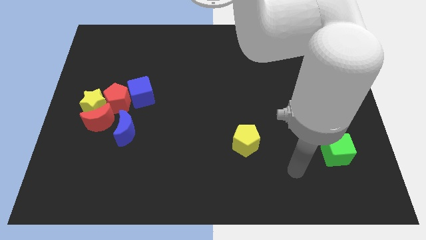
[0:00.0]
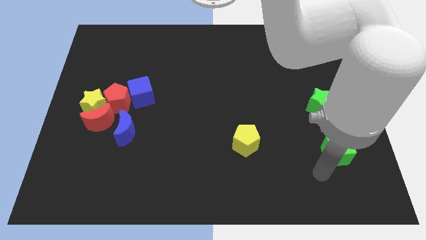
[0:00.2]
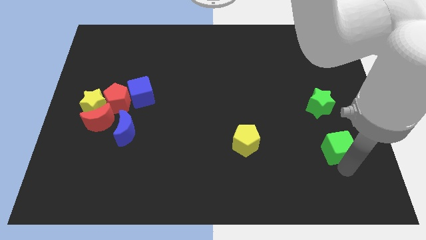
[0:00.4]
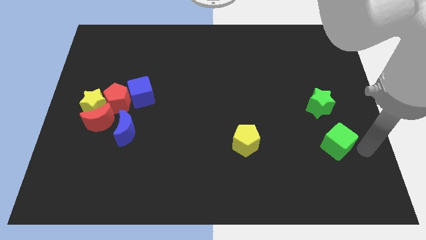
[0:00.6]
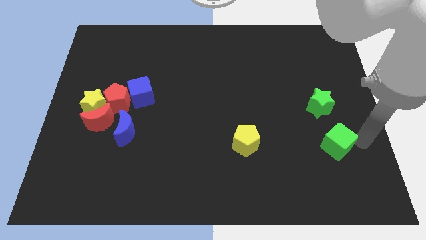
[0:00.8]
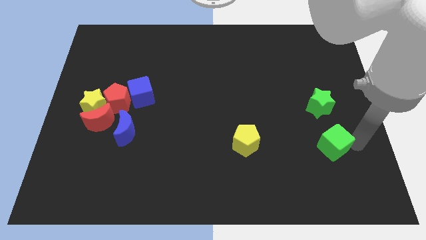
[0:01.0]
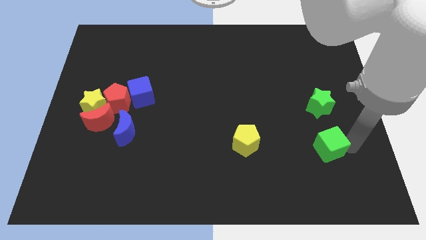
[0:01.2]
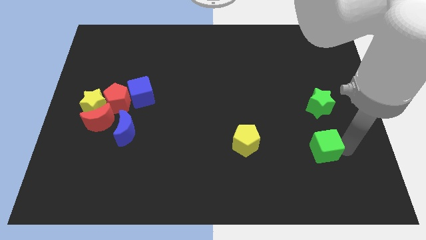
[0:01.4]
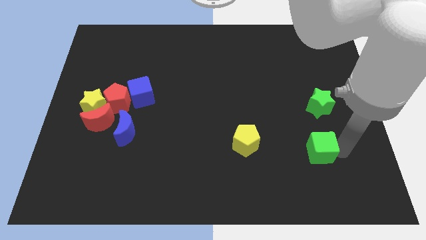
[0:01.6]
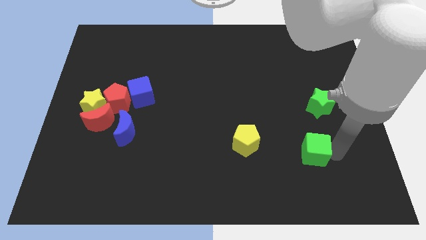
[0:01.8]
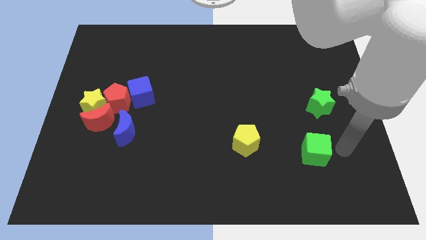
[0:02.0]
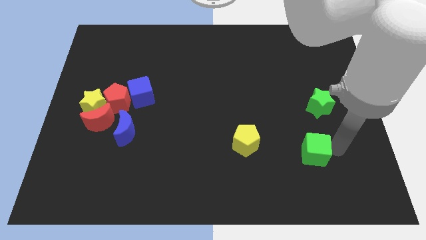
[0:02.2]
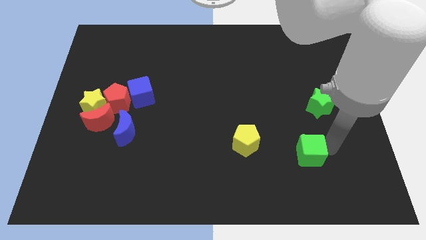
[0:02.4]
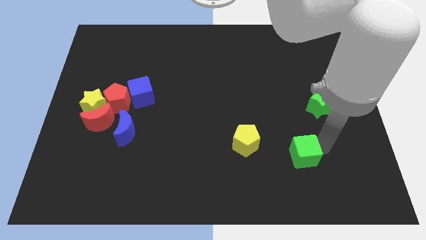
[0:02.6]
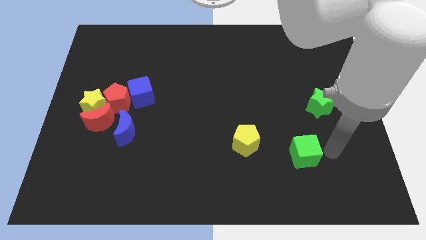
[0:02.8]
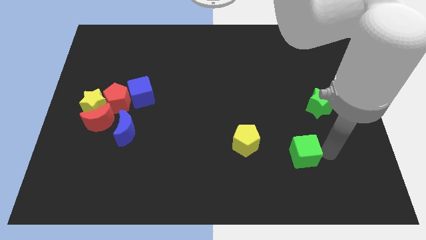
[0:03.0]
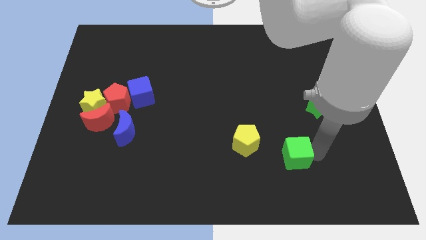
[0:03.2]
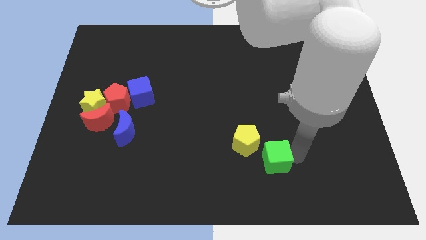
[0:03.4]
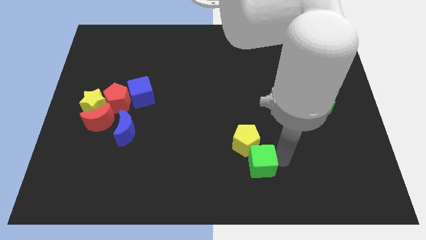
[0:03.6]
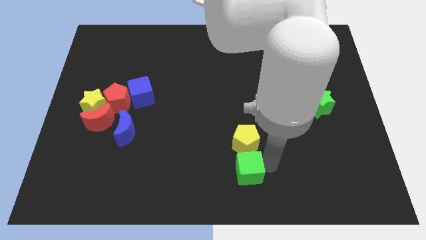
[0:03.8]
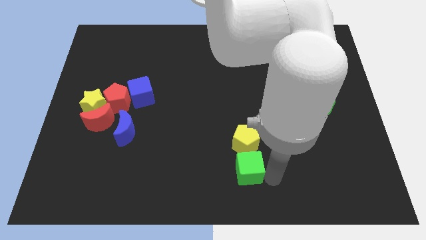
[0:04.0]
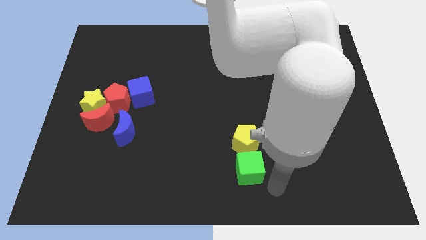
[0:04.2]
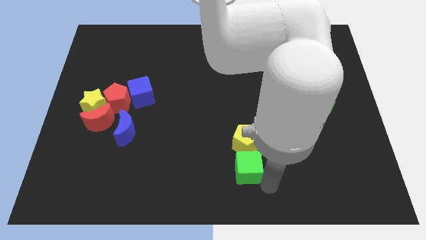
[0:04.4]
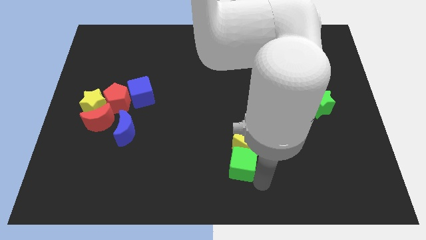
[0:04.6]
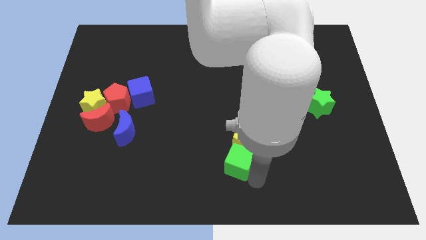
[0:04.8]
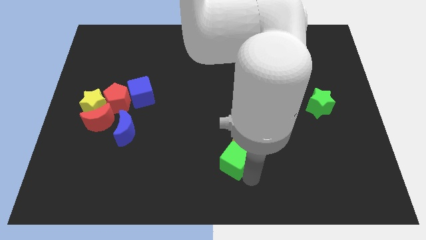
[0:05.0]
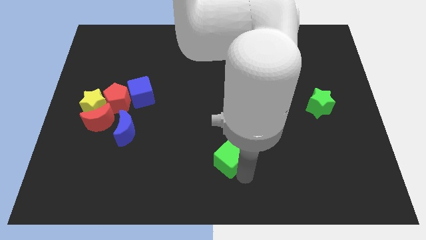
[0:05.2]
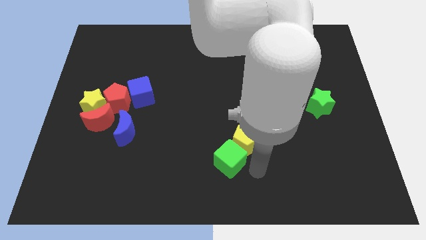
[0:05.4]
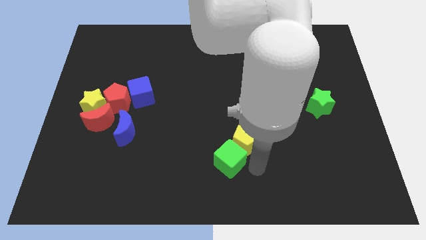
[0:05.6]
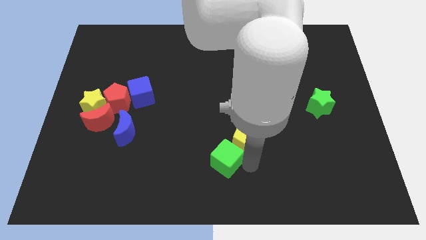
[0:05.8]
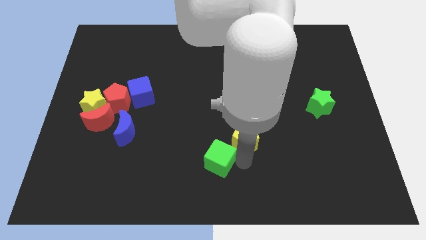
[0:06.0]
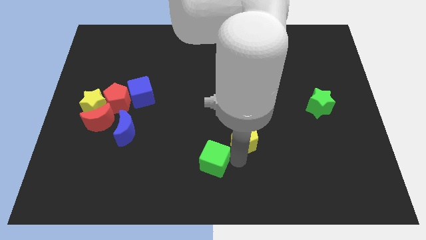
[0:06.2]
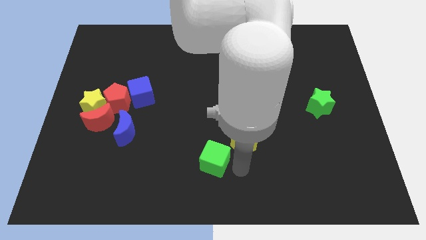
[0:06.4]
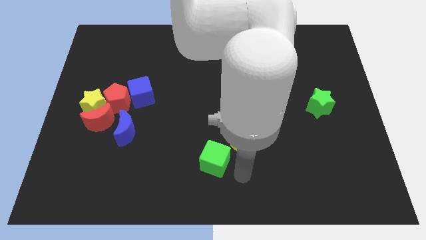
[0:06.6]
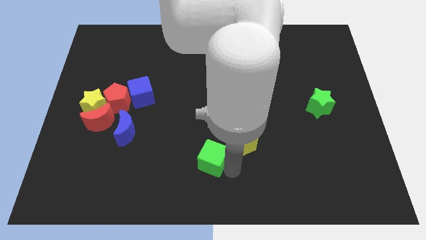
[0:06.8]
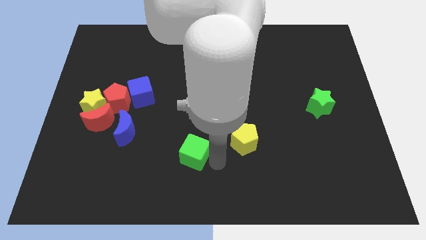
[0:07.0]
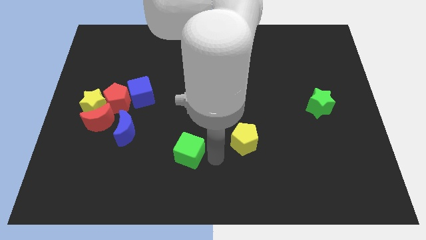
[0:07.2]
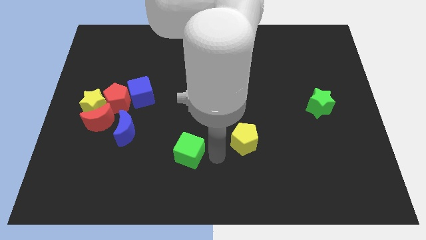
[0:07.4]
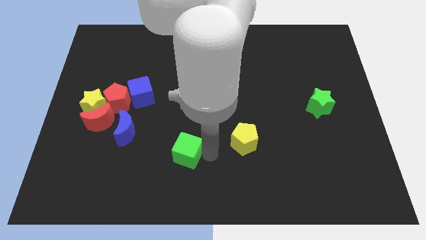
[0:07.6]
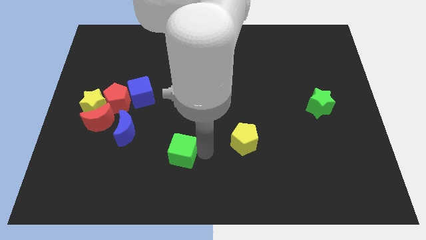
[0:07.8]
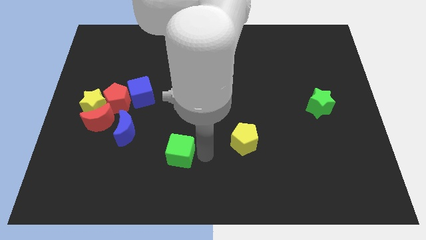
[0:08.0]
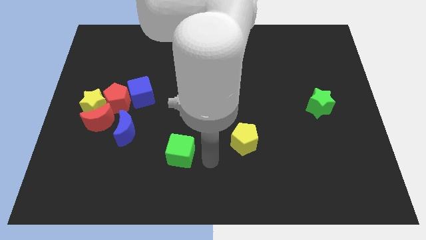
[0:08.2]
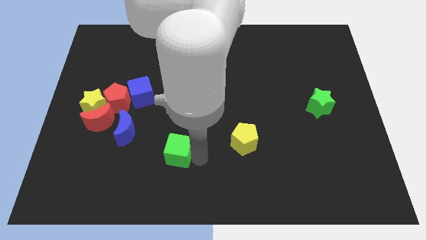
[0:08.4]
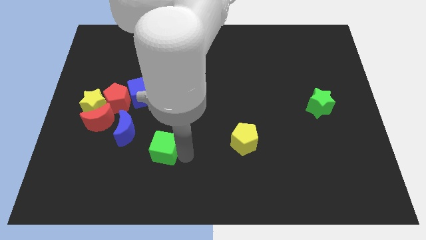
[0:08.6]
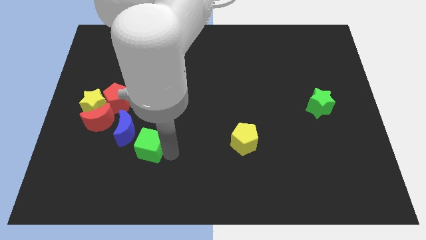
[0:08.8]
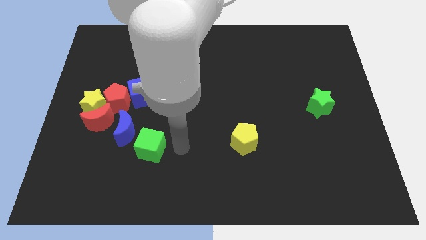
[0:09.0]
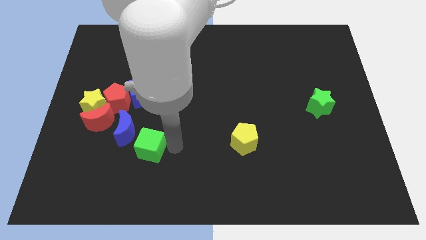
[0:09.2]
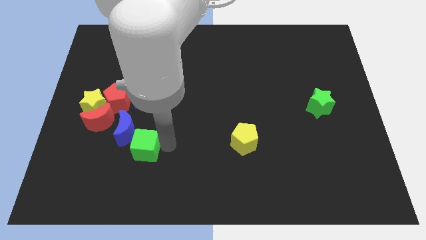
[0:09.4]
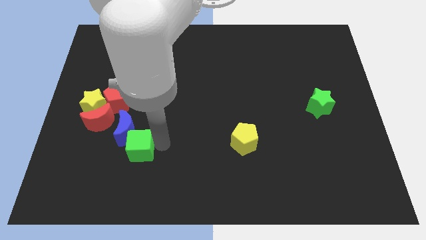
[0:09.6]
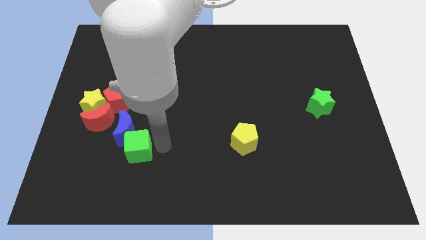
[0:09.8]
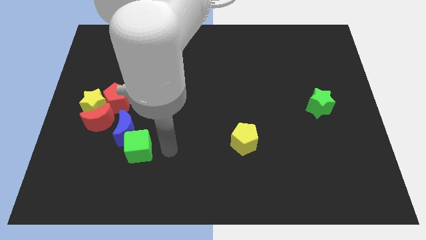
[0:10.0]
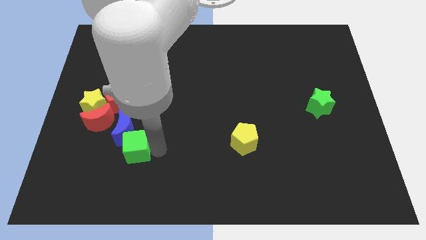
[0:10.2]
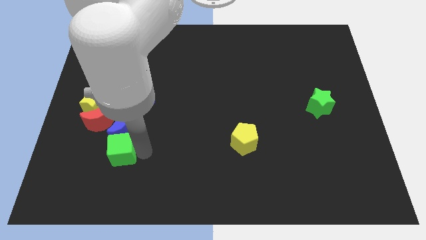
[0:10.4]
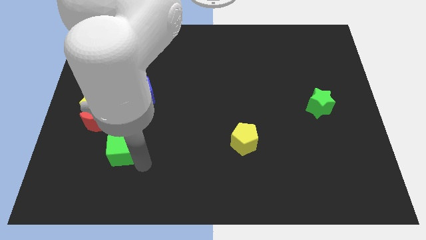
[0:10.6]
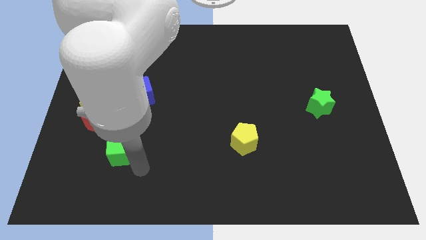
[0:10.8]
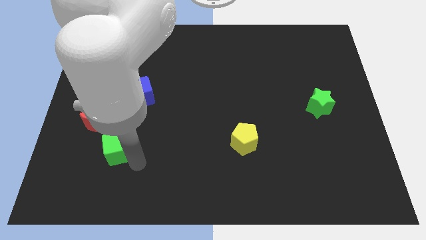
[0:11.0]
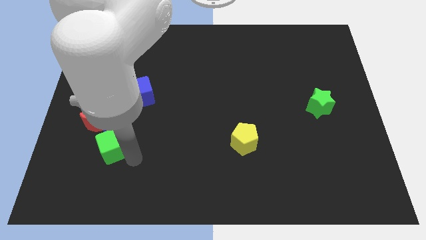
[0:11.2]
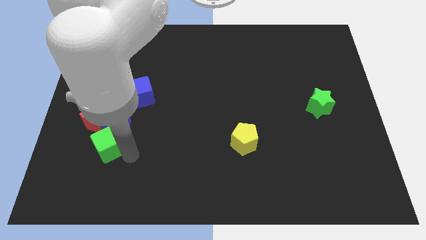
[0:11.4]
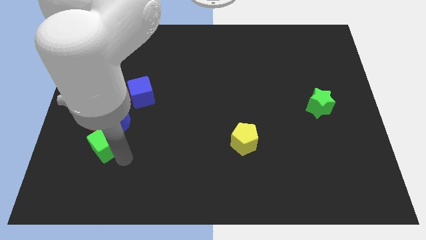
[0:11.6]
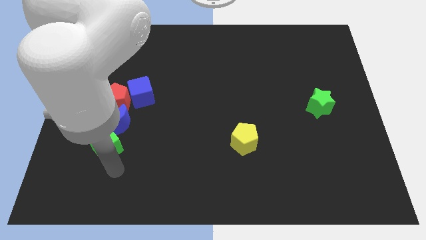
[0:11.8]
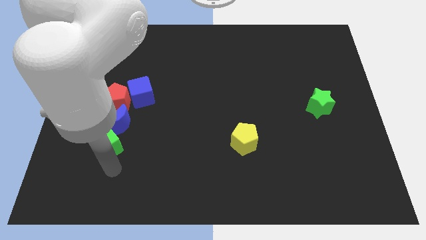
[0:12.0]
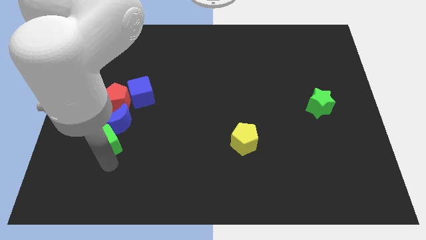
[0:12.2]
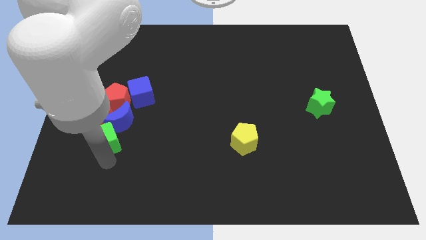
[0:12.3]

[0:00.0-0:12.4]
push the green cube to the red moon
